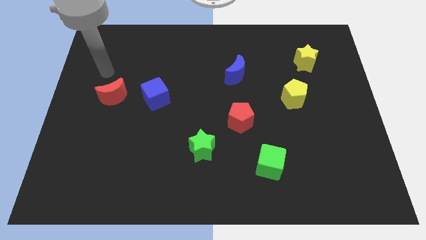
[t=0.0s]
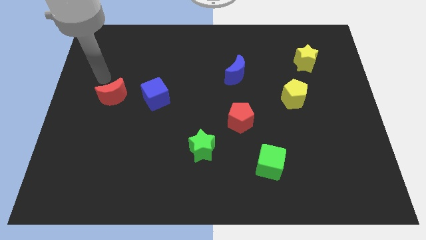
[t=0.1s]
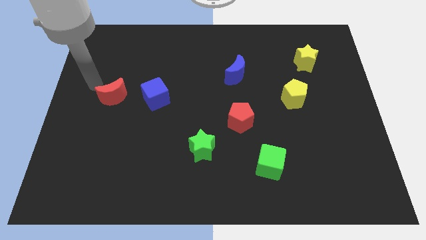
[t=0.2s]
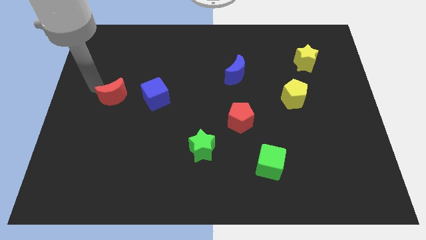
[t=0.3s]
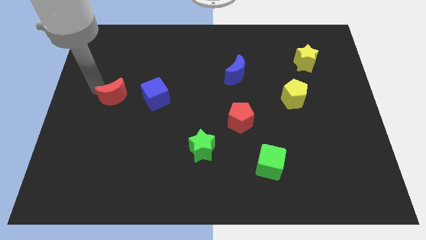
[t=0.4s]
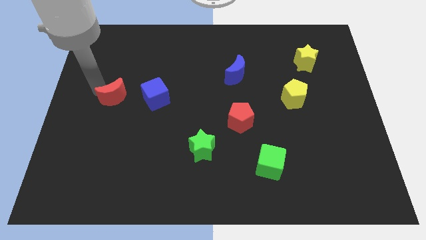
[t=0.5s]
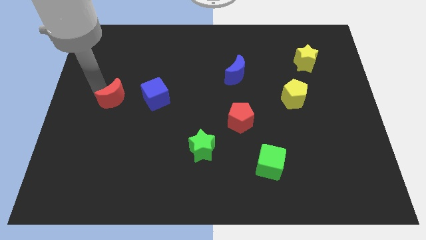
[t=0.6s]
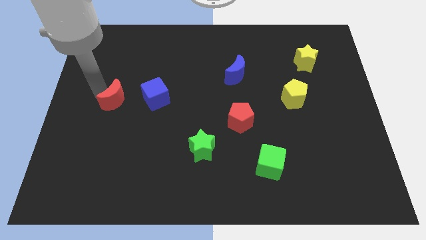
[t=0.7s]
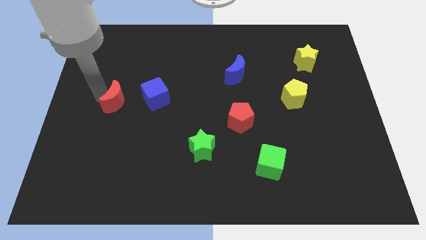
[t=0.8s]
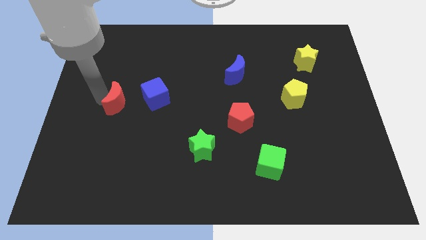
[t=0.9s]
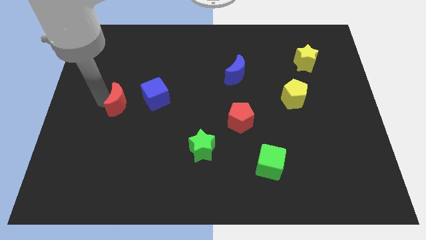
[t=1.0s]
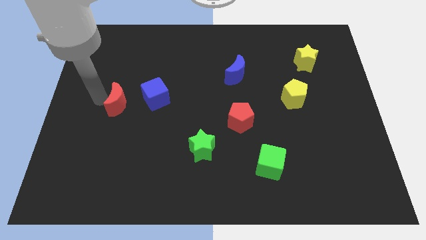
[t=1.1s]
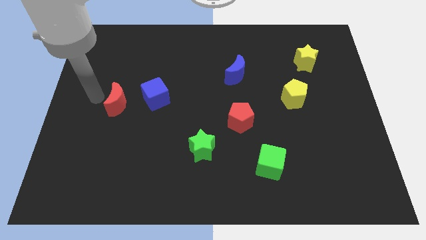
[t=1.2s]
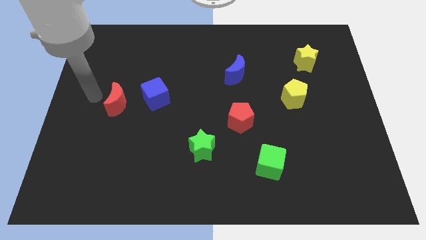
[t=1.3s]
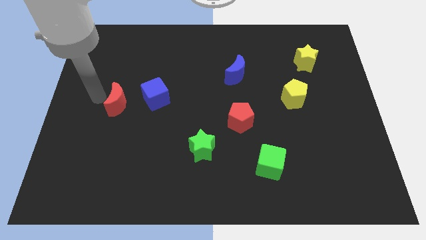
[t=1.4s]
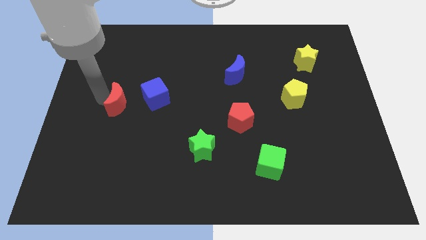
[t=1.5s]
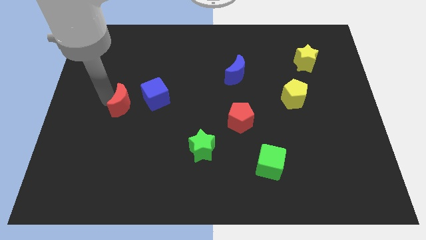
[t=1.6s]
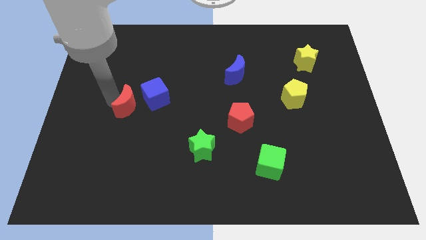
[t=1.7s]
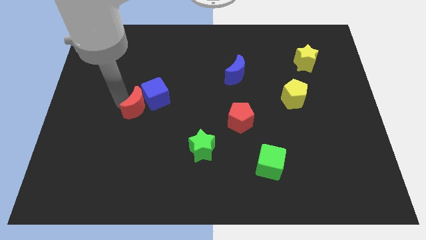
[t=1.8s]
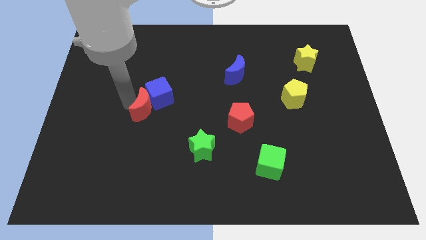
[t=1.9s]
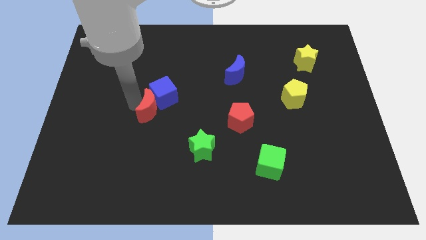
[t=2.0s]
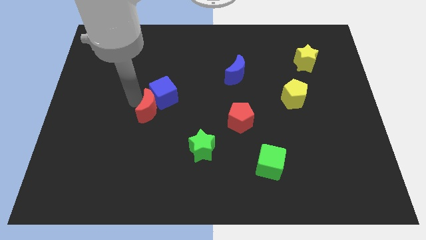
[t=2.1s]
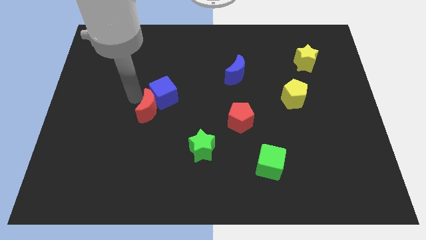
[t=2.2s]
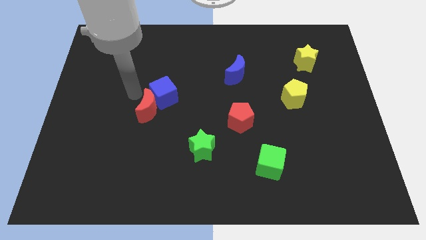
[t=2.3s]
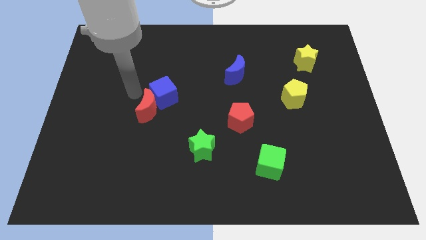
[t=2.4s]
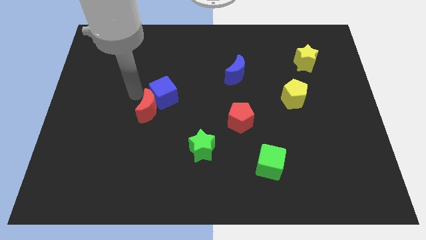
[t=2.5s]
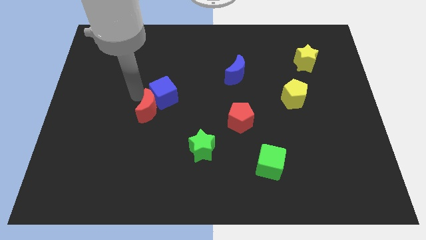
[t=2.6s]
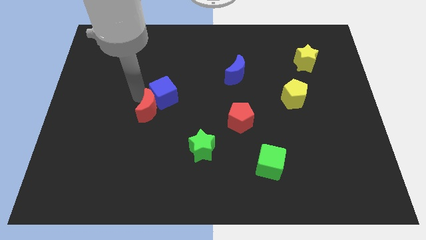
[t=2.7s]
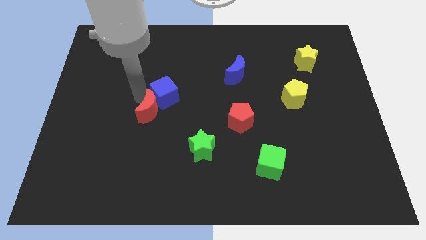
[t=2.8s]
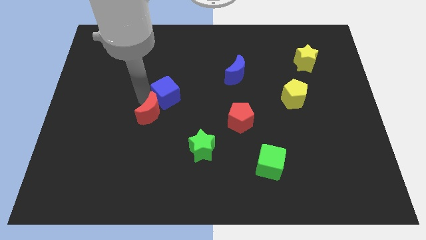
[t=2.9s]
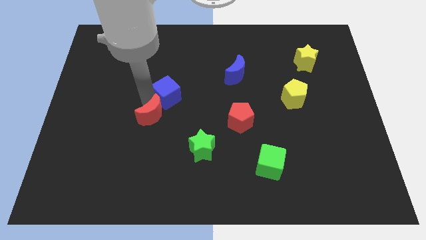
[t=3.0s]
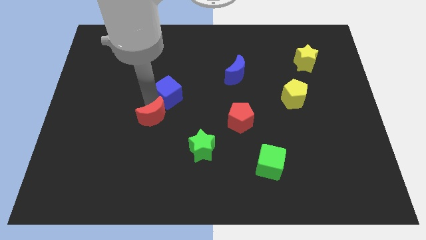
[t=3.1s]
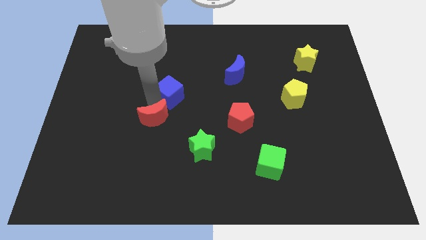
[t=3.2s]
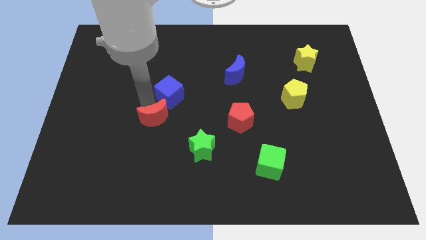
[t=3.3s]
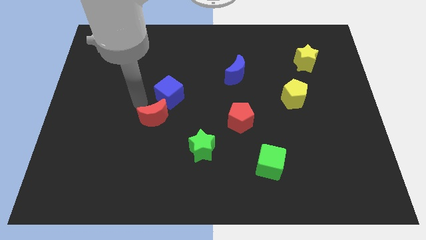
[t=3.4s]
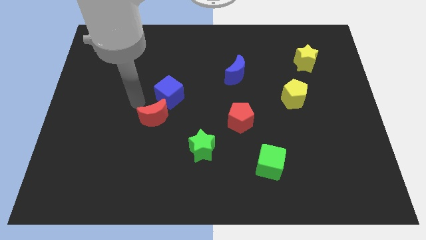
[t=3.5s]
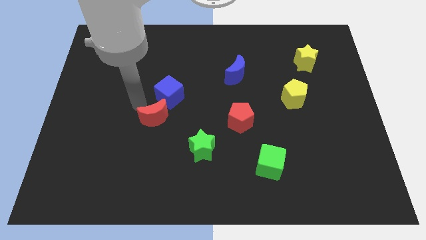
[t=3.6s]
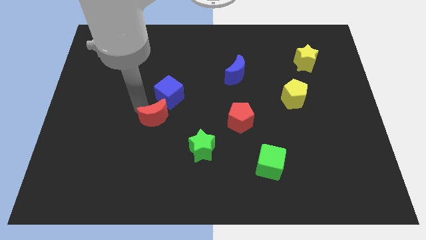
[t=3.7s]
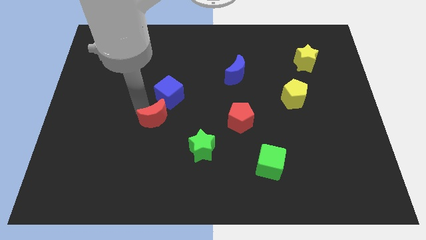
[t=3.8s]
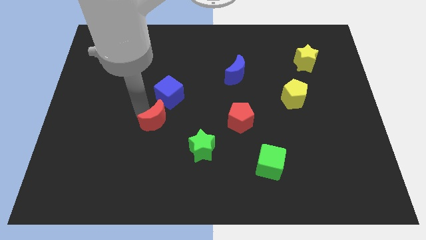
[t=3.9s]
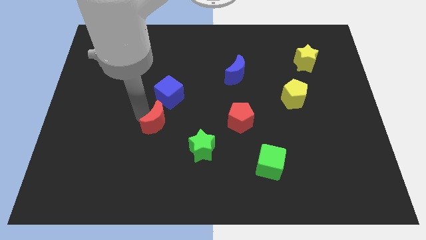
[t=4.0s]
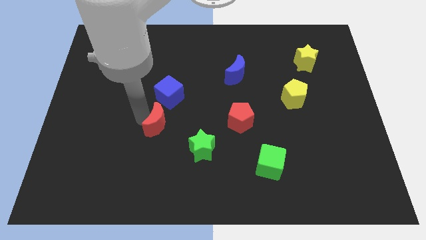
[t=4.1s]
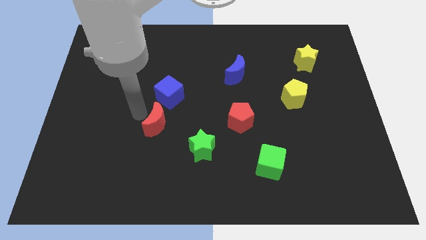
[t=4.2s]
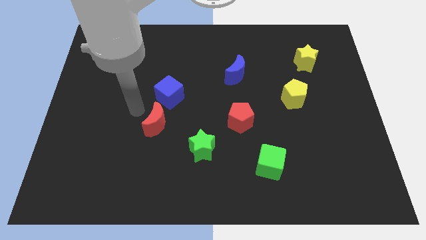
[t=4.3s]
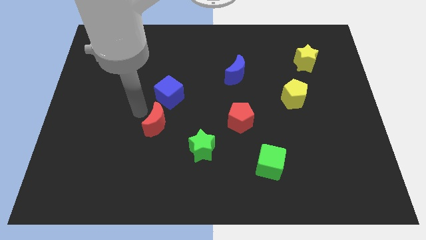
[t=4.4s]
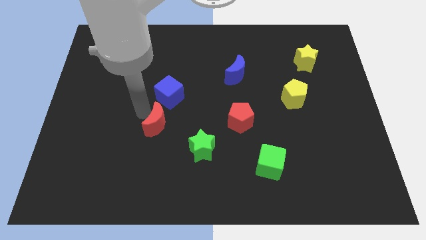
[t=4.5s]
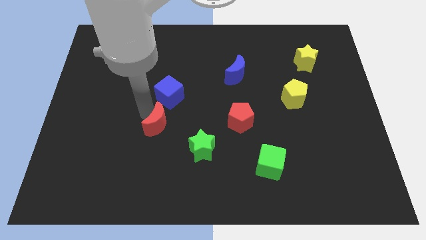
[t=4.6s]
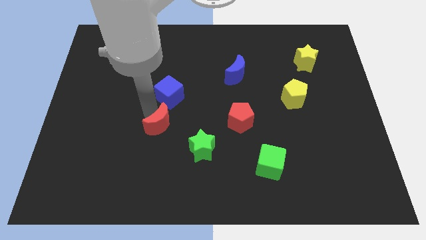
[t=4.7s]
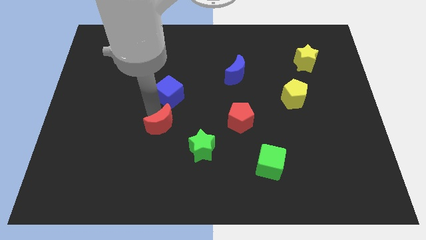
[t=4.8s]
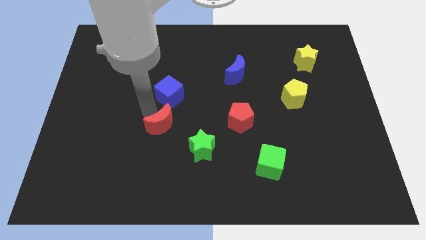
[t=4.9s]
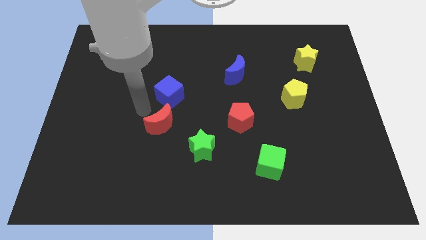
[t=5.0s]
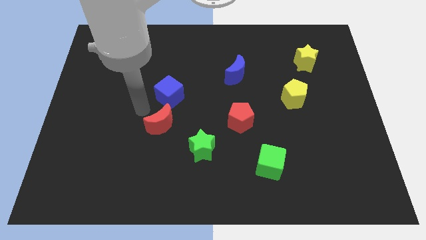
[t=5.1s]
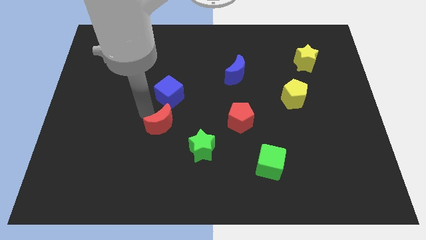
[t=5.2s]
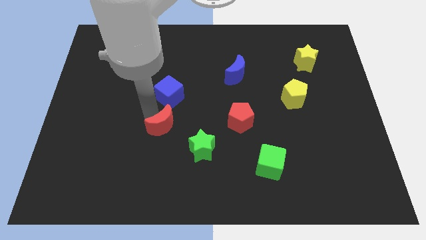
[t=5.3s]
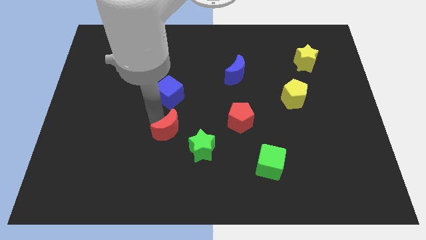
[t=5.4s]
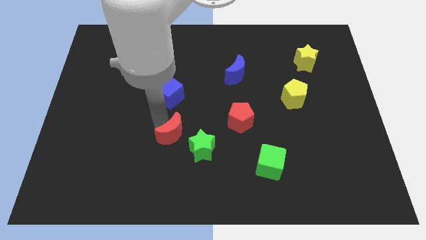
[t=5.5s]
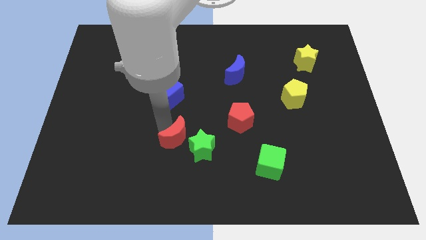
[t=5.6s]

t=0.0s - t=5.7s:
slide the red moon to the green star

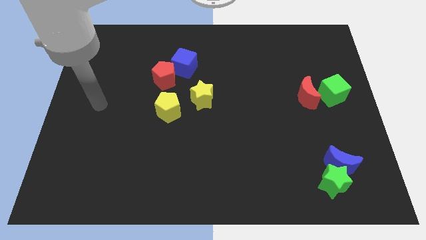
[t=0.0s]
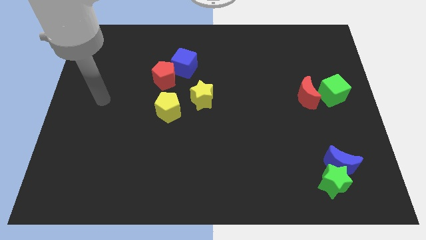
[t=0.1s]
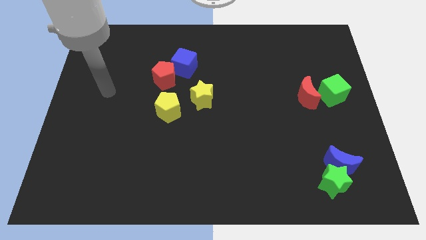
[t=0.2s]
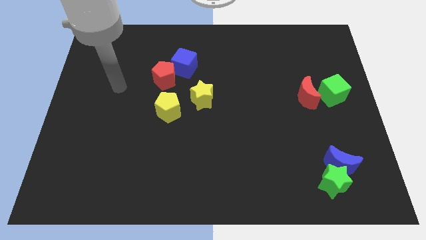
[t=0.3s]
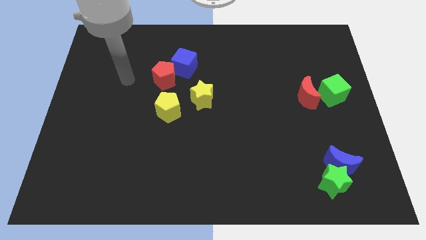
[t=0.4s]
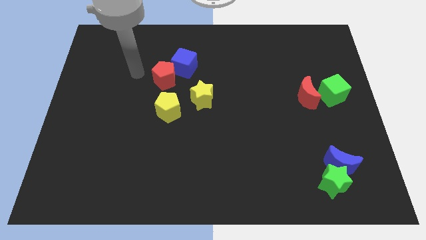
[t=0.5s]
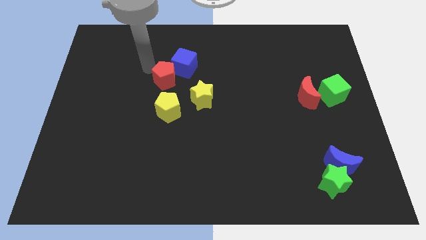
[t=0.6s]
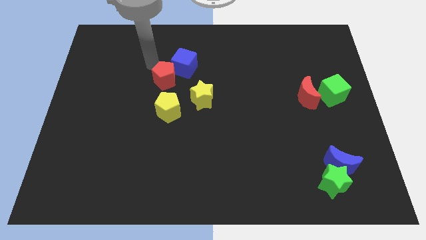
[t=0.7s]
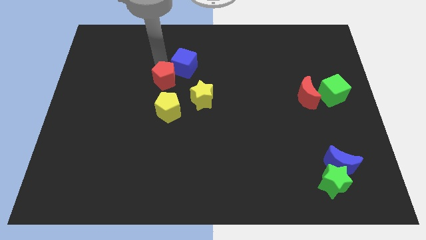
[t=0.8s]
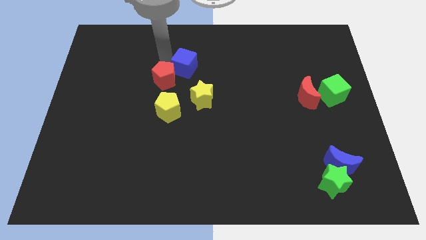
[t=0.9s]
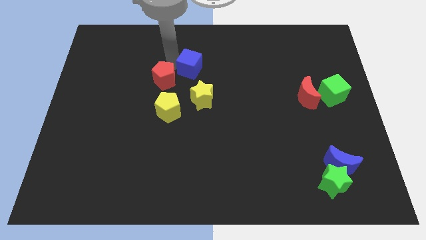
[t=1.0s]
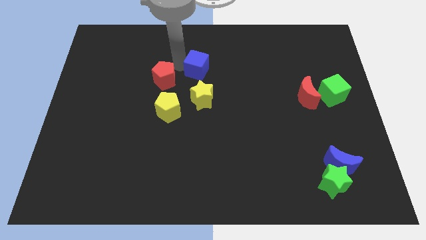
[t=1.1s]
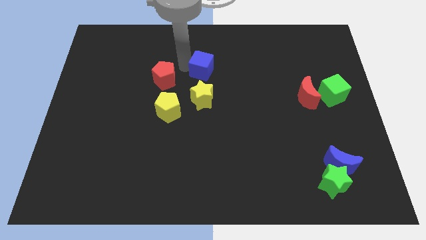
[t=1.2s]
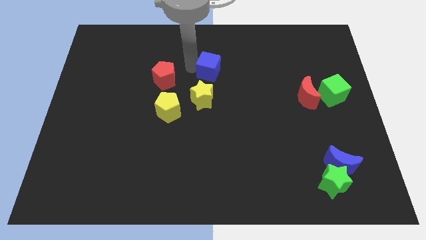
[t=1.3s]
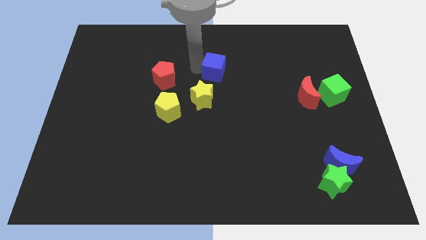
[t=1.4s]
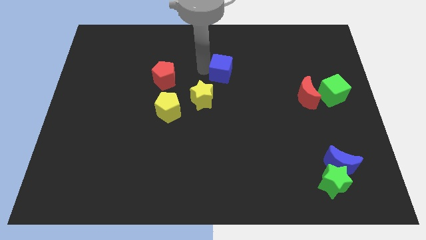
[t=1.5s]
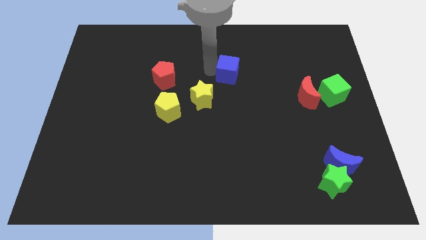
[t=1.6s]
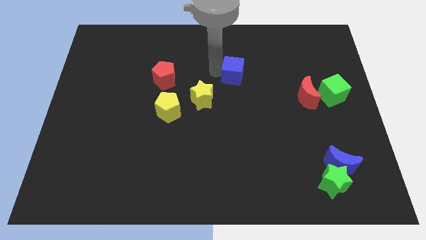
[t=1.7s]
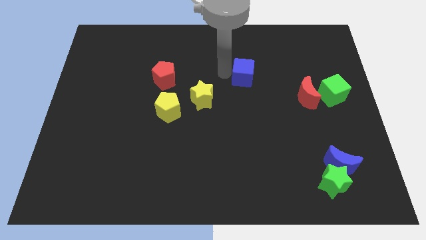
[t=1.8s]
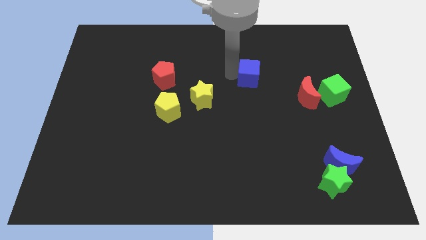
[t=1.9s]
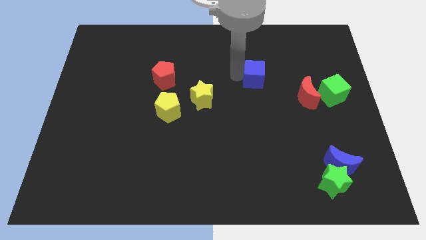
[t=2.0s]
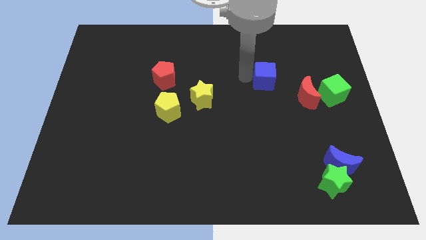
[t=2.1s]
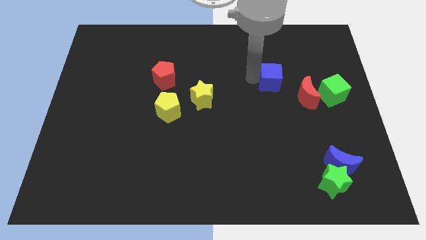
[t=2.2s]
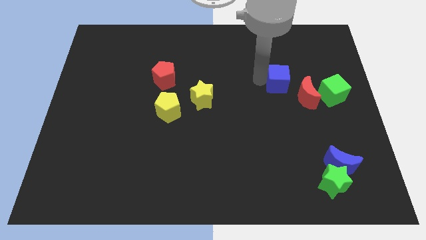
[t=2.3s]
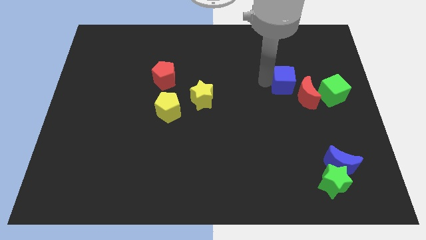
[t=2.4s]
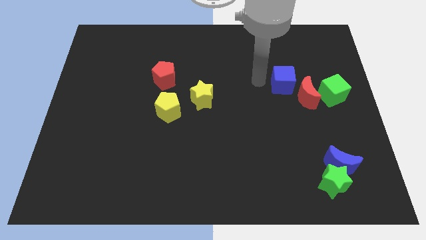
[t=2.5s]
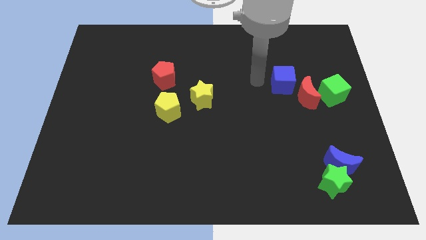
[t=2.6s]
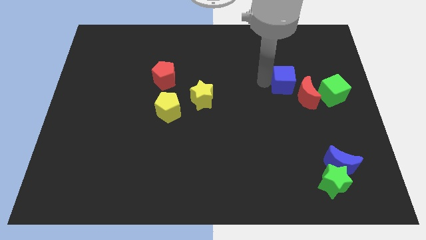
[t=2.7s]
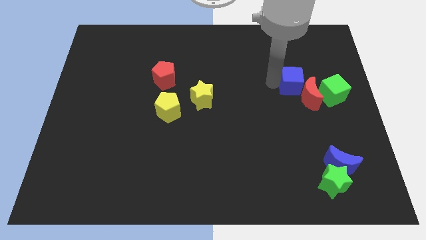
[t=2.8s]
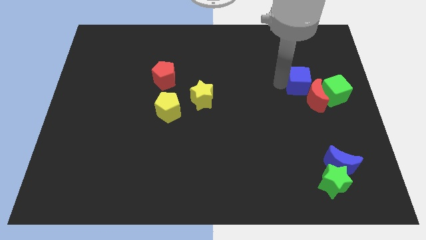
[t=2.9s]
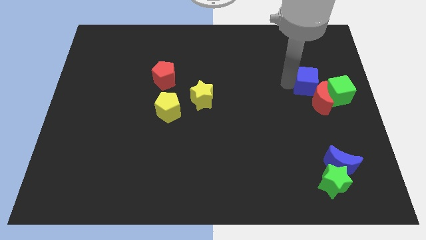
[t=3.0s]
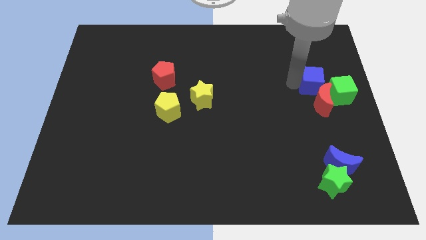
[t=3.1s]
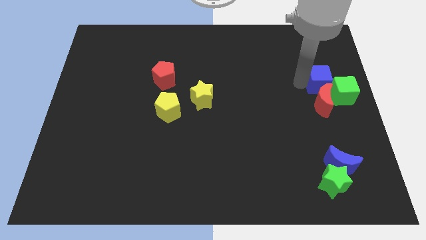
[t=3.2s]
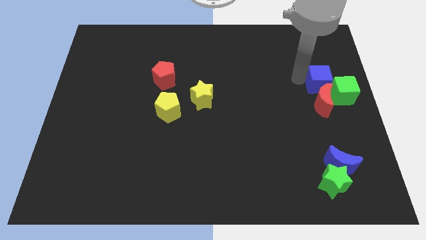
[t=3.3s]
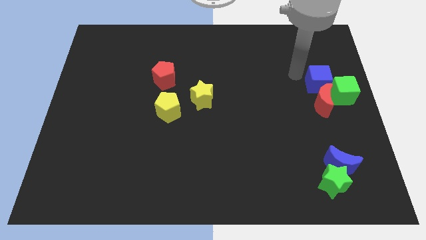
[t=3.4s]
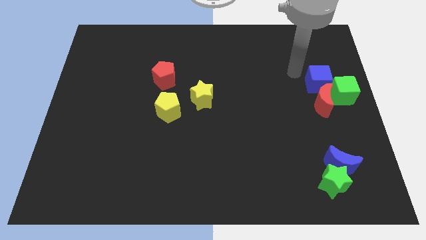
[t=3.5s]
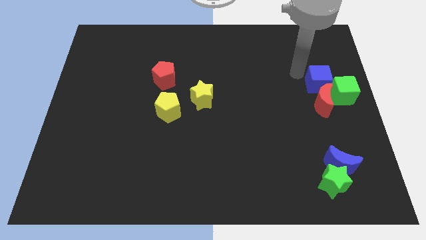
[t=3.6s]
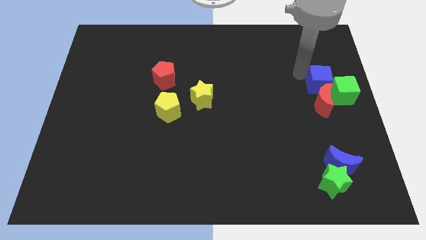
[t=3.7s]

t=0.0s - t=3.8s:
slide the blue cube towards the green cube
